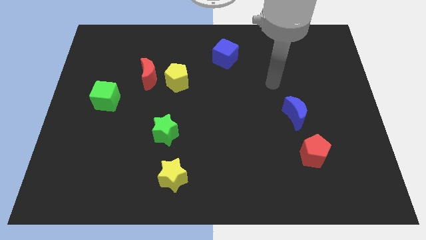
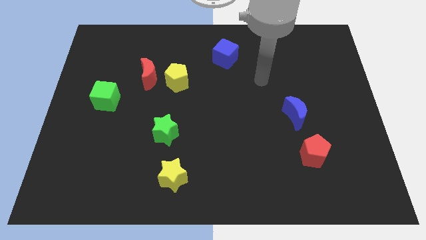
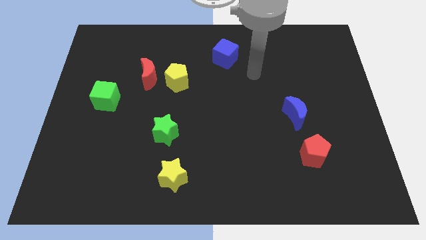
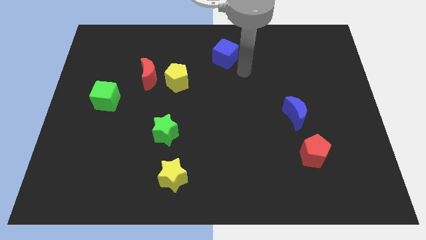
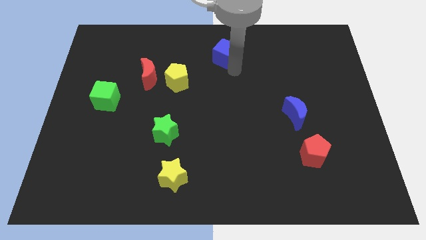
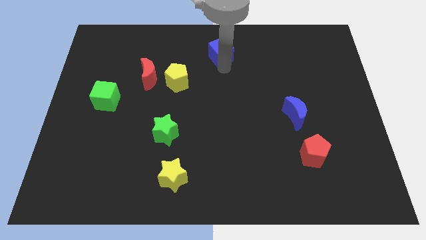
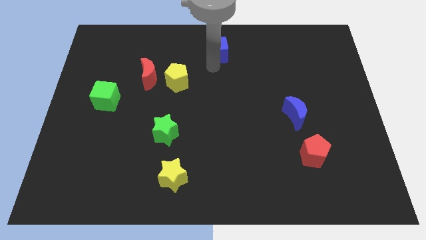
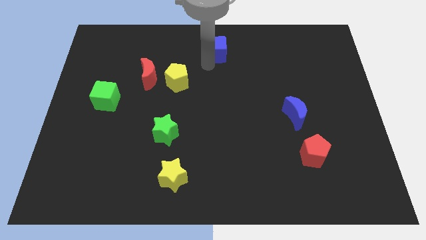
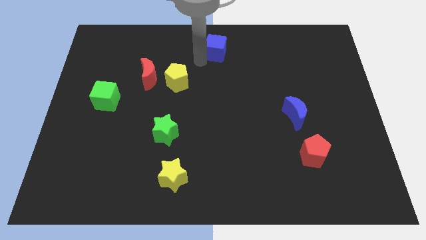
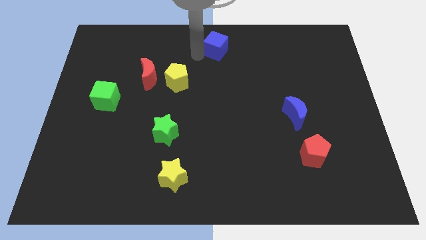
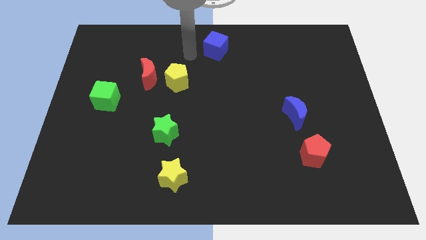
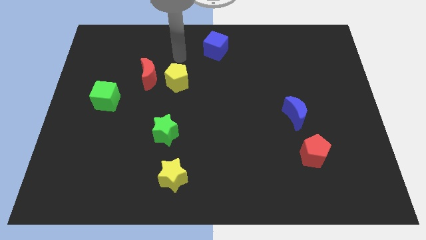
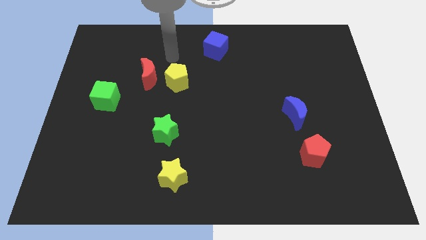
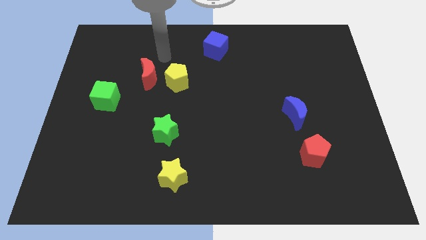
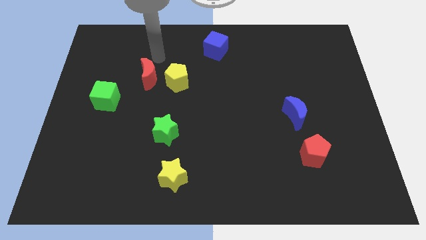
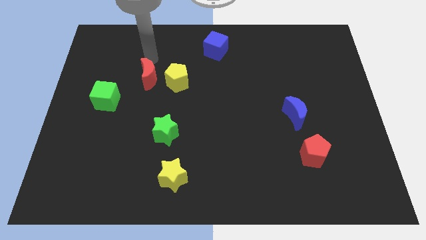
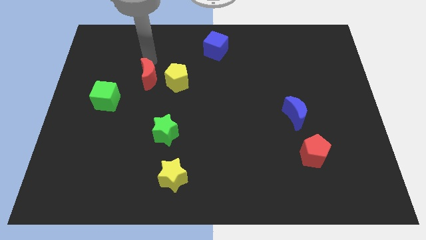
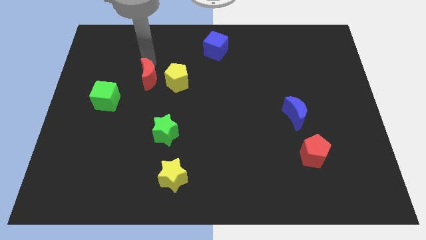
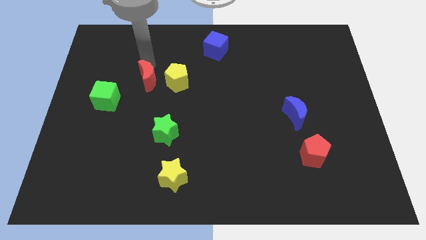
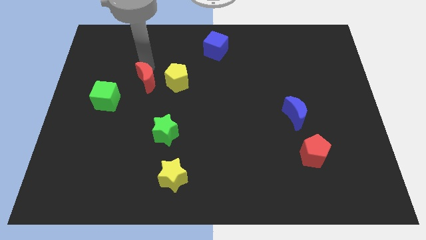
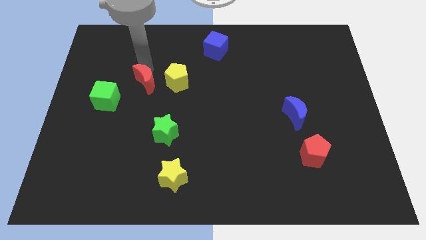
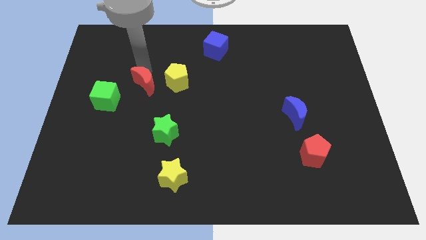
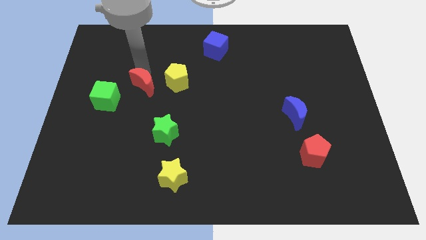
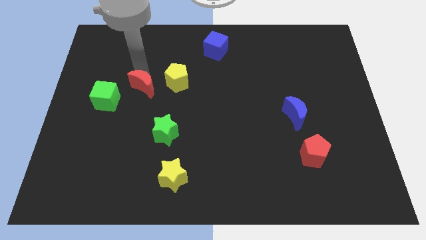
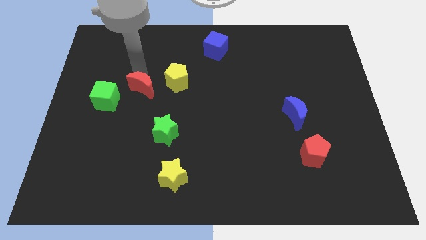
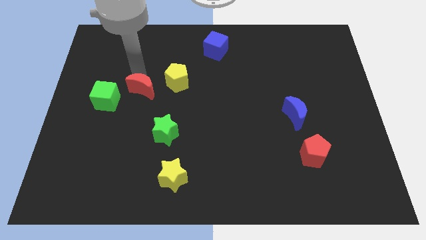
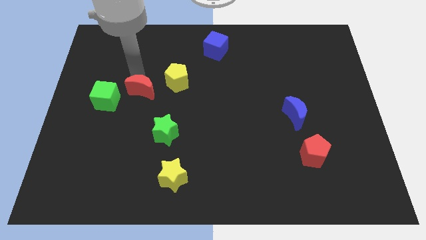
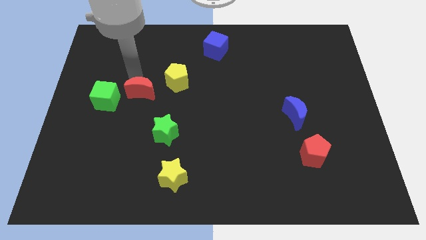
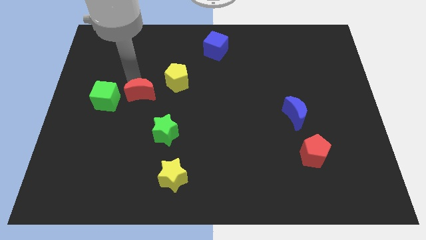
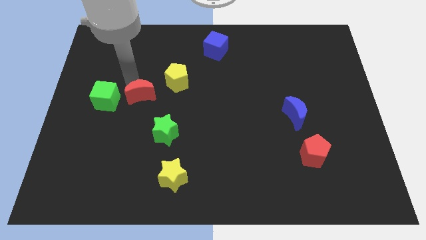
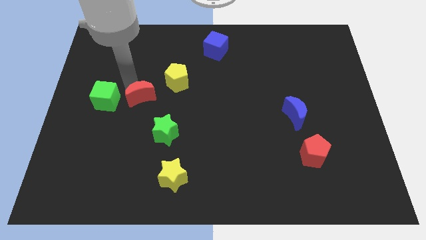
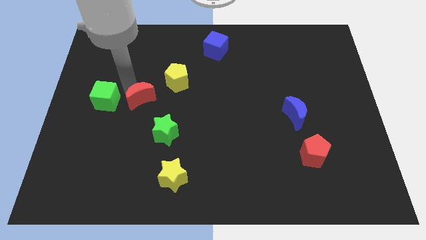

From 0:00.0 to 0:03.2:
slide the red moon a little bit downwards

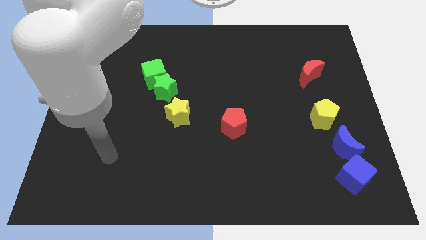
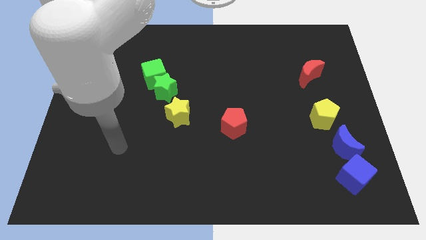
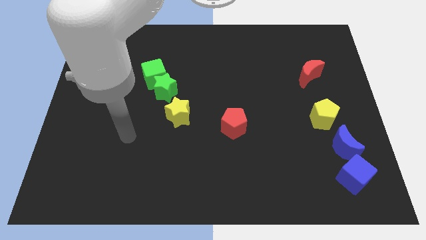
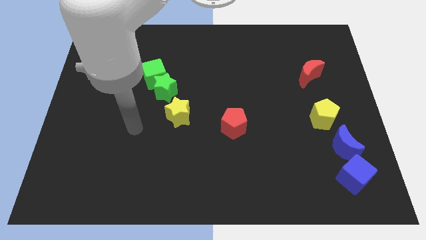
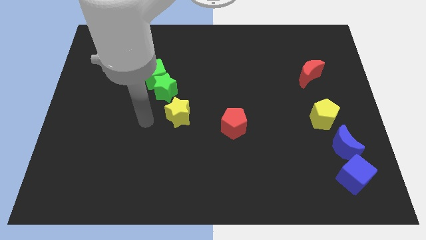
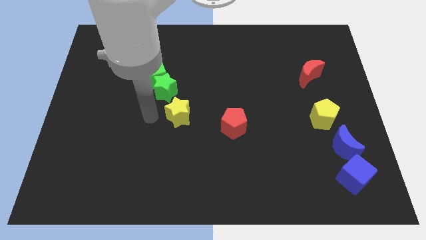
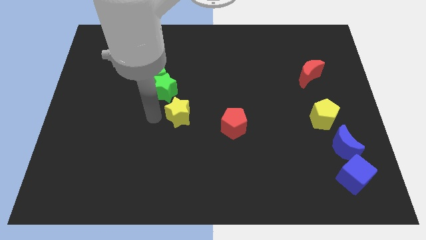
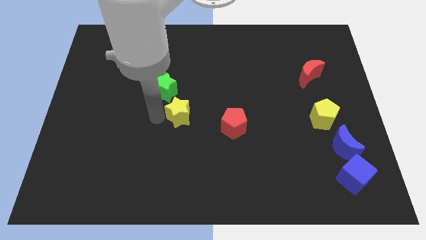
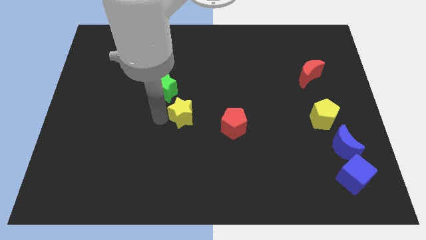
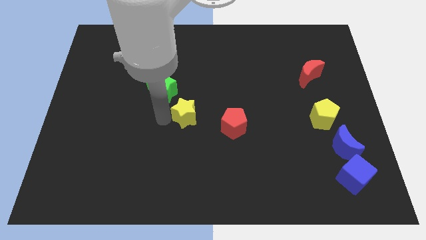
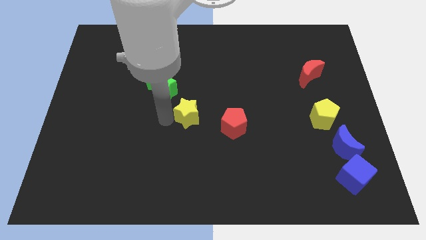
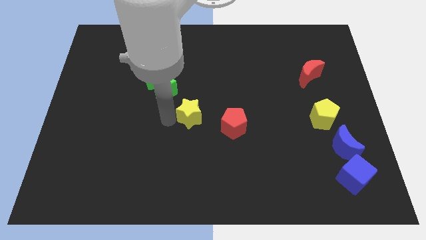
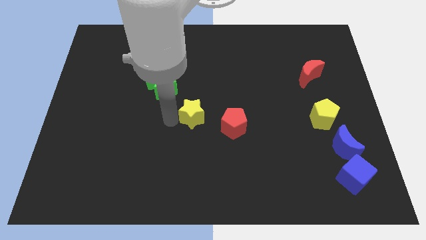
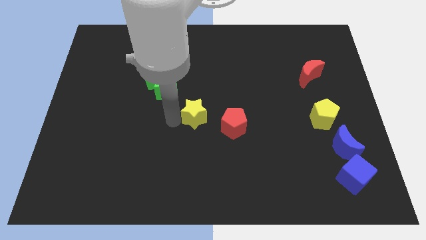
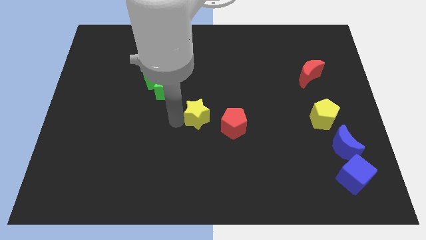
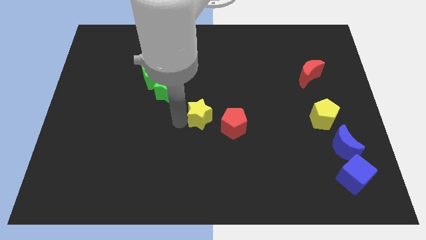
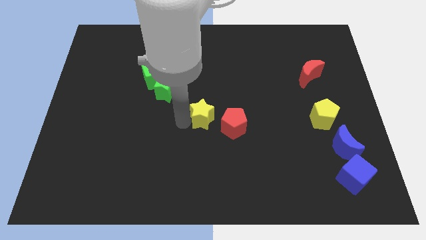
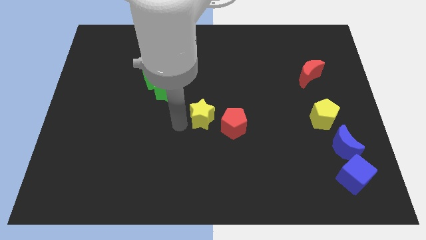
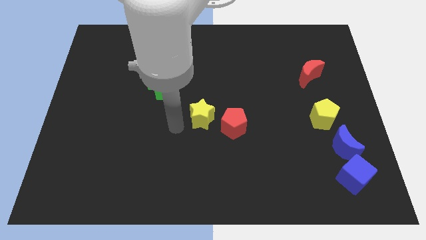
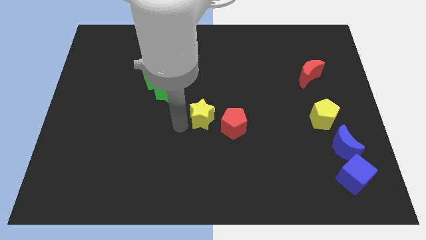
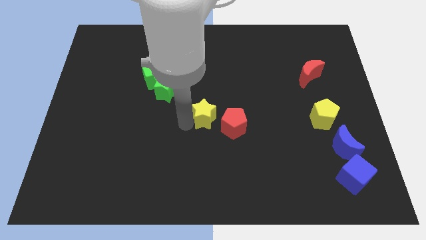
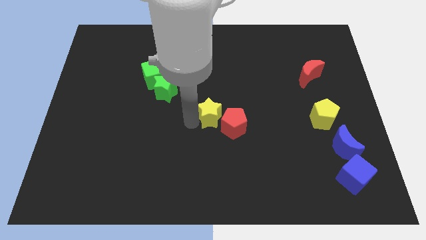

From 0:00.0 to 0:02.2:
push the yellow star a little to the right

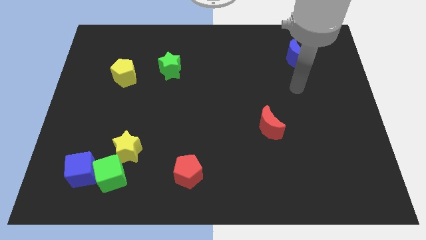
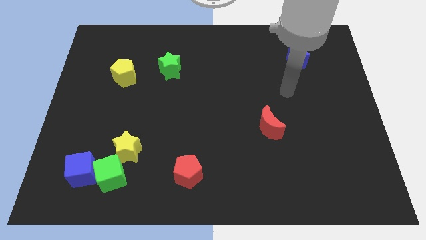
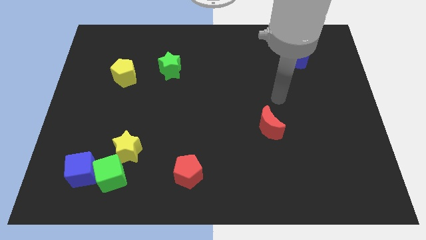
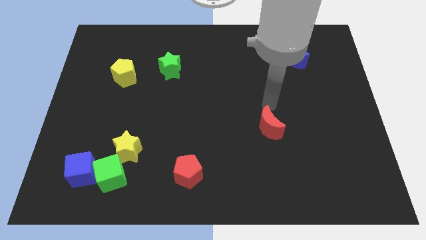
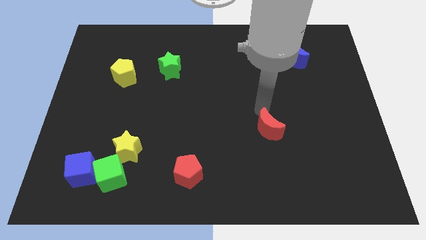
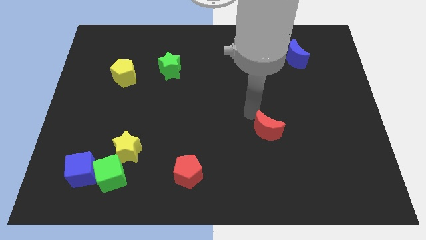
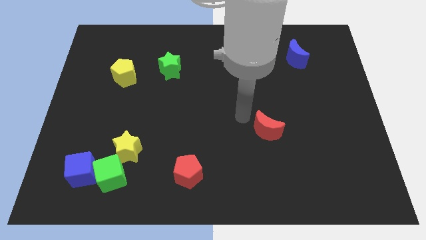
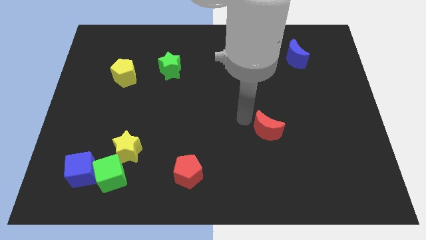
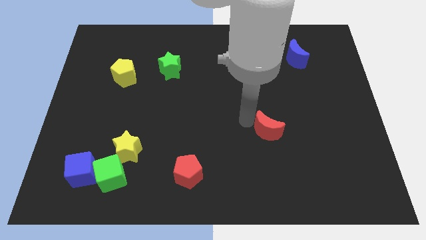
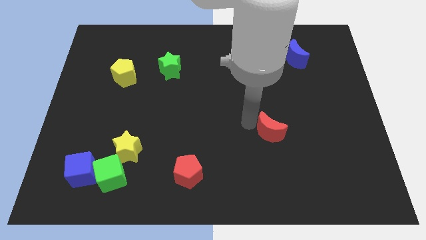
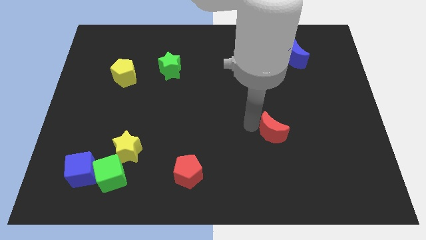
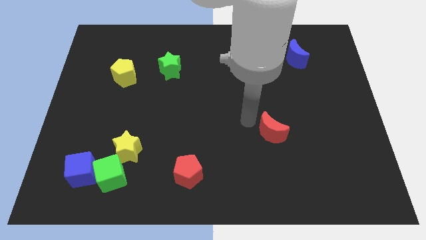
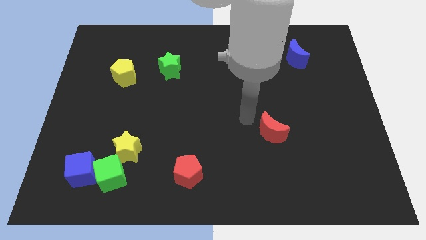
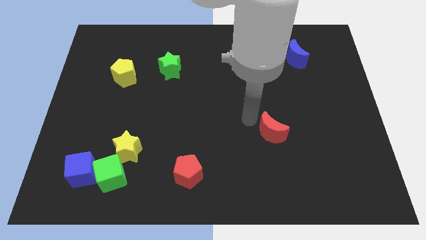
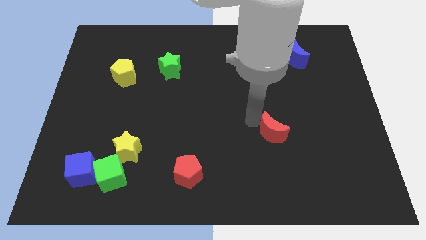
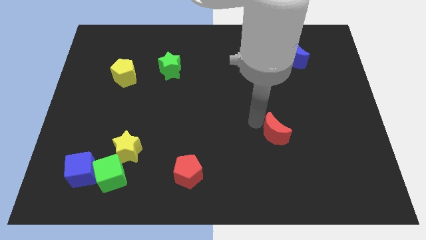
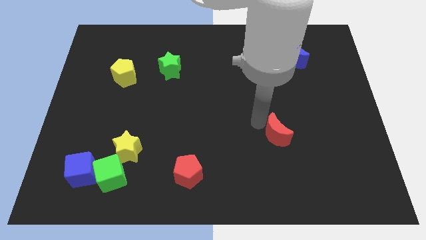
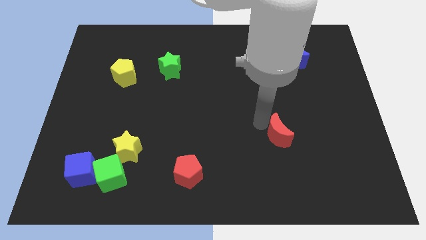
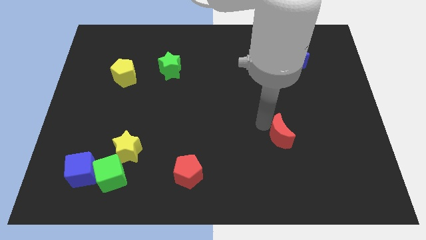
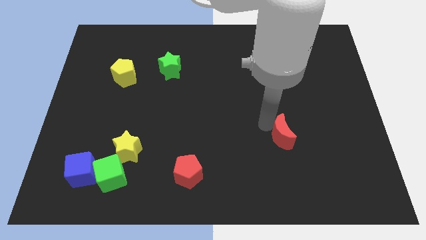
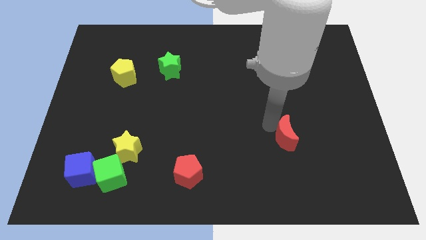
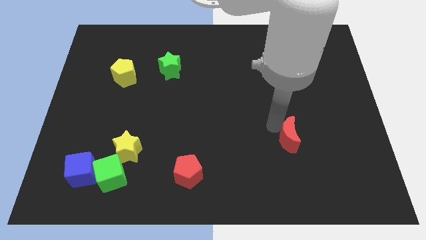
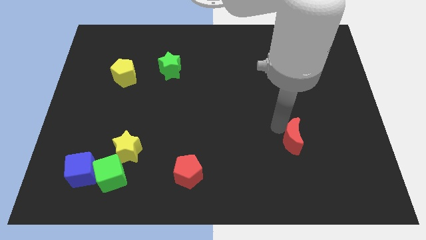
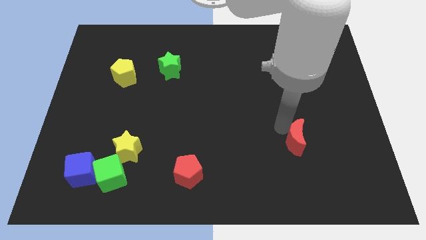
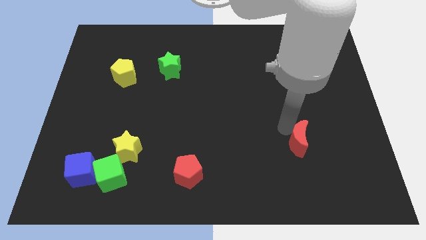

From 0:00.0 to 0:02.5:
slightly push the red moon down and right

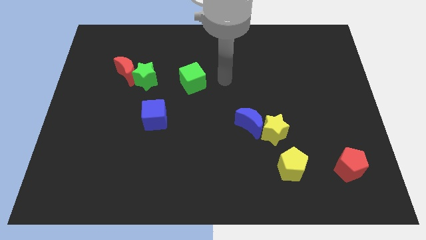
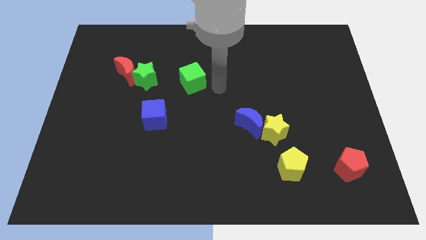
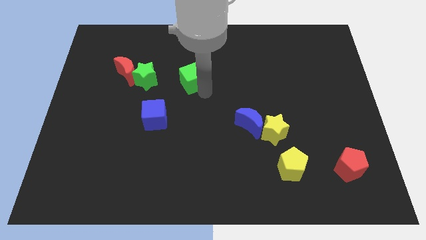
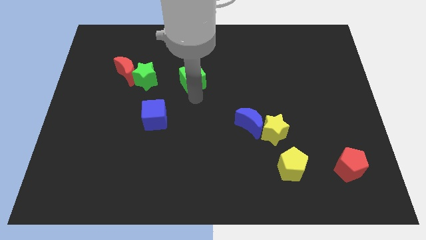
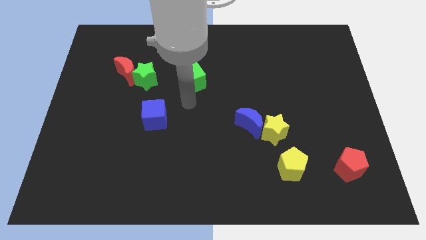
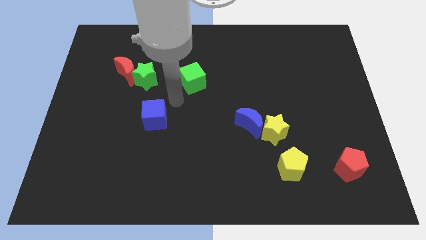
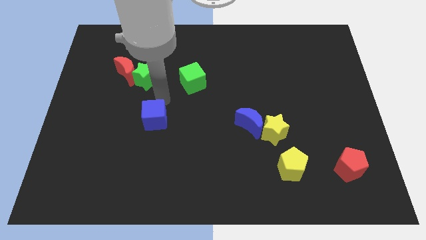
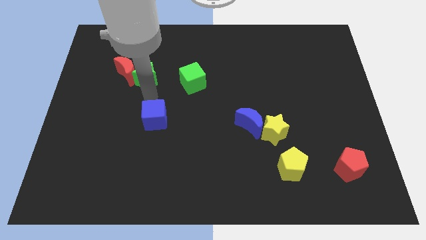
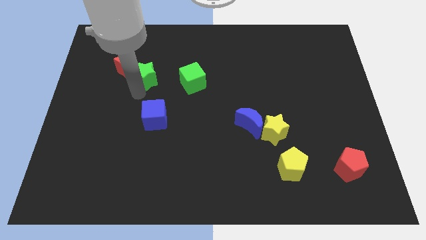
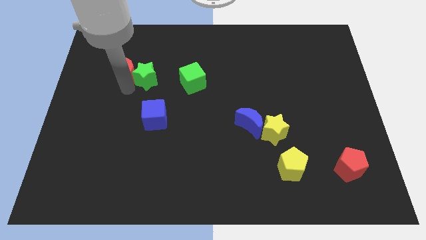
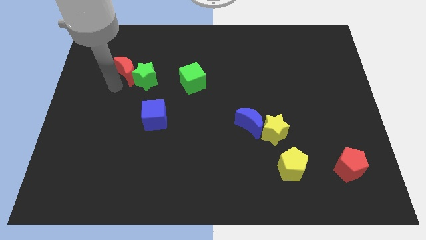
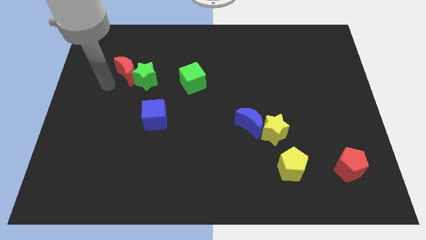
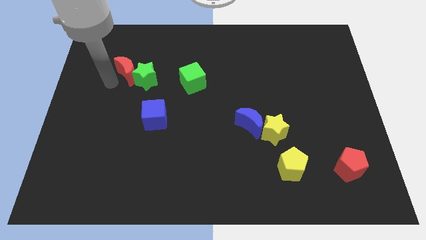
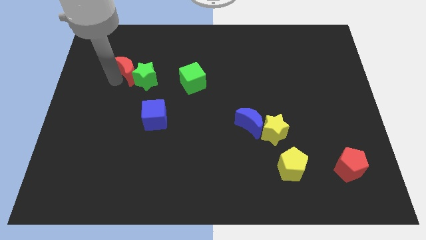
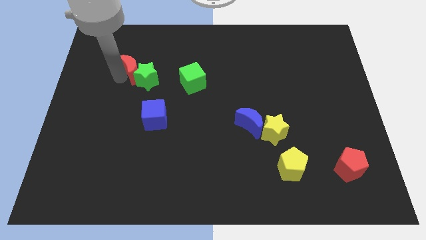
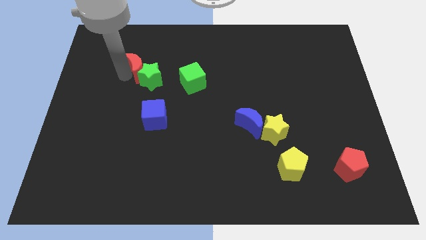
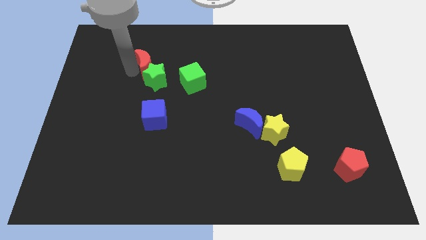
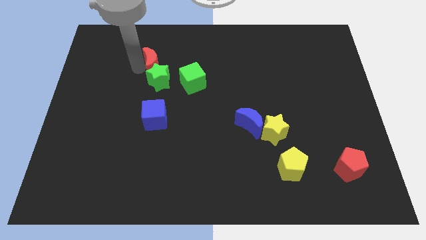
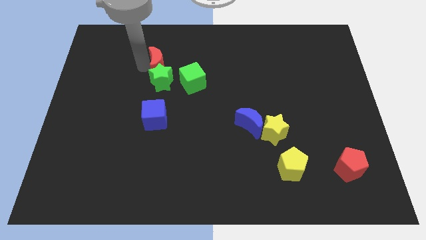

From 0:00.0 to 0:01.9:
slide the red moon a little to the right
